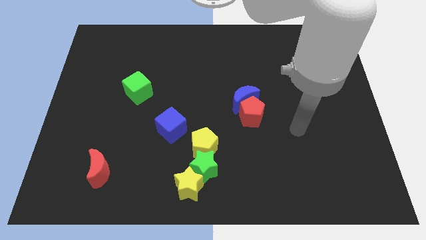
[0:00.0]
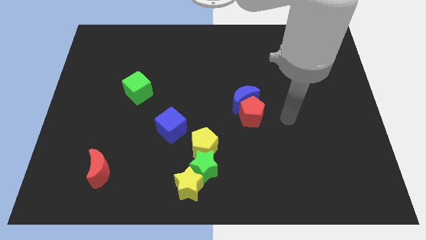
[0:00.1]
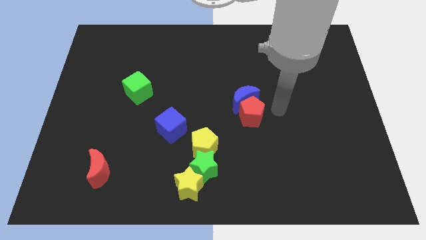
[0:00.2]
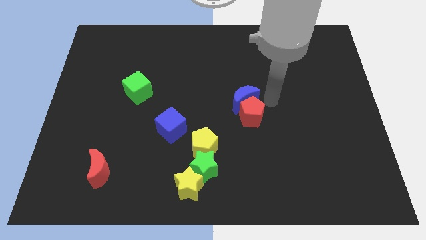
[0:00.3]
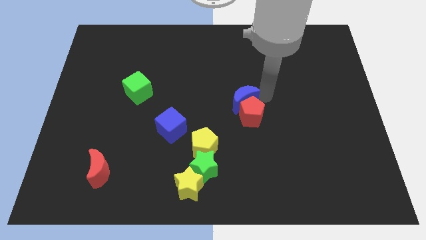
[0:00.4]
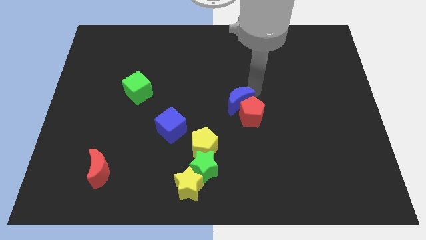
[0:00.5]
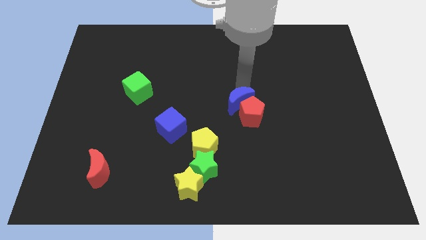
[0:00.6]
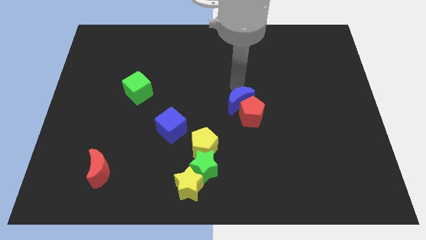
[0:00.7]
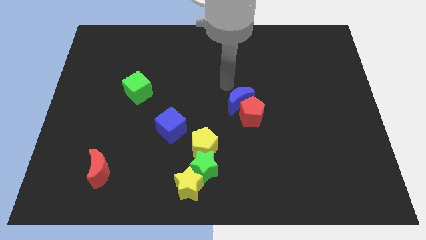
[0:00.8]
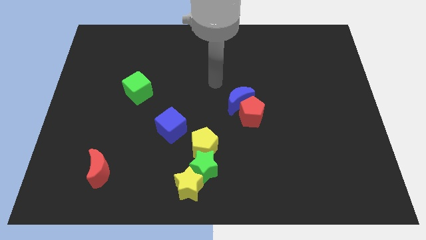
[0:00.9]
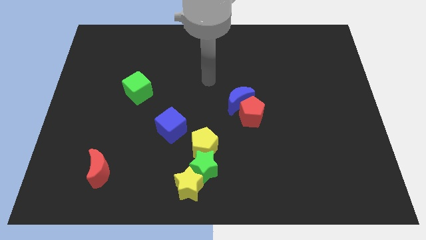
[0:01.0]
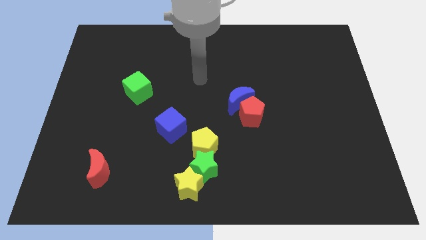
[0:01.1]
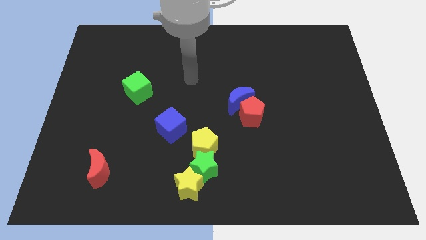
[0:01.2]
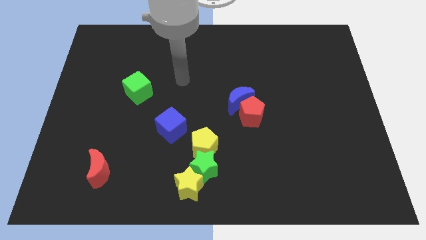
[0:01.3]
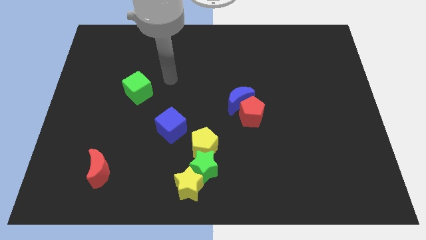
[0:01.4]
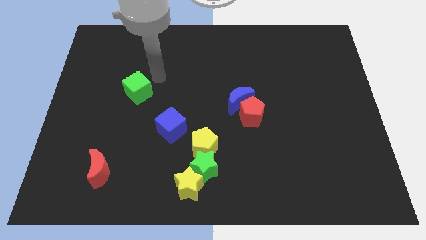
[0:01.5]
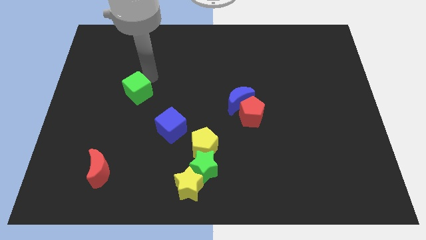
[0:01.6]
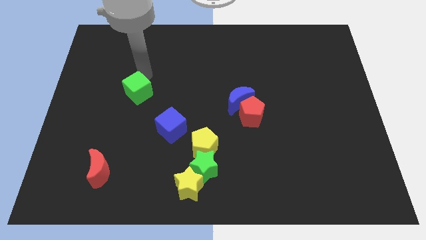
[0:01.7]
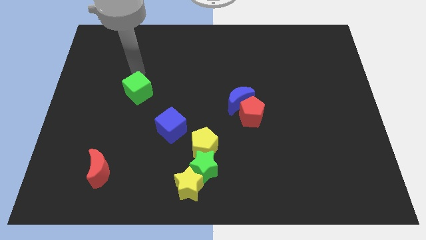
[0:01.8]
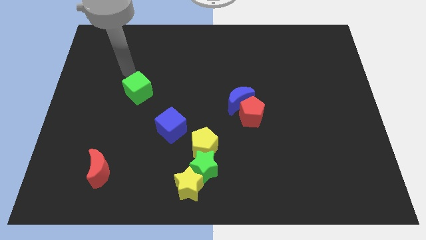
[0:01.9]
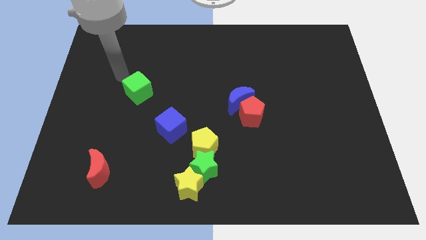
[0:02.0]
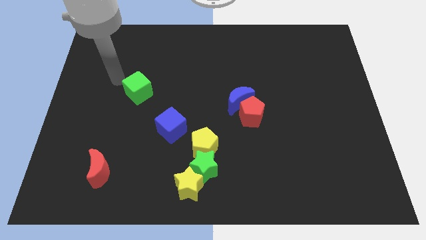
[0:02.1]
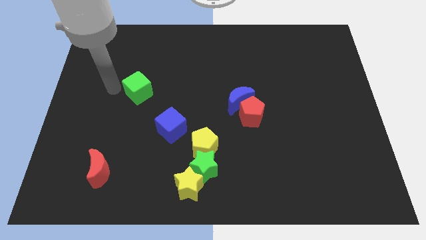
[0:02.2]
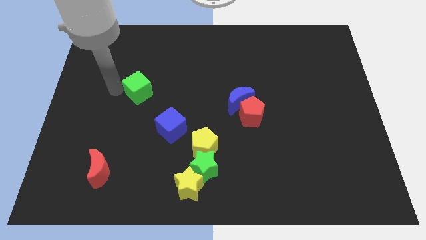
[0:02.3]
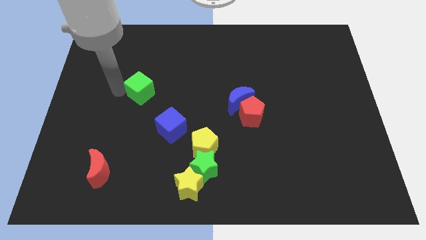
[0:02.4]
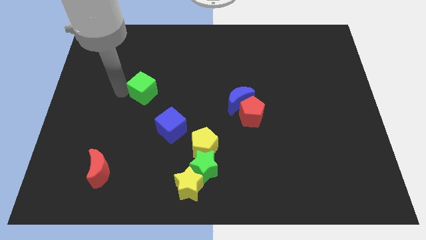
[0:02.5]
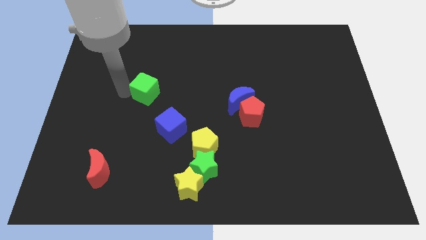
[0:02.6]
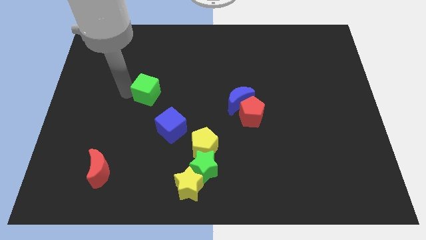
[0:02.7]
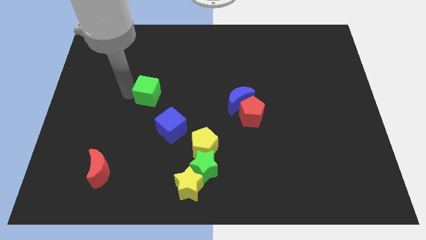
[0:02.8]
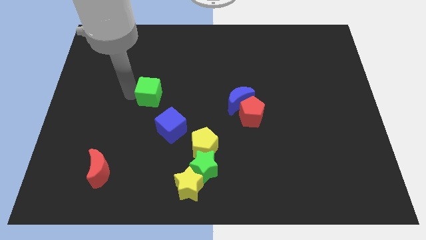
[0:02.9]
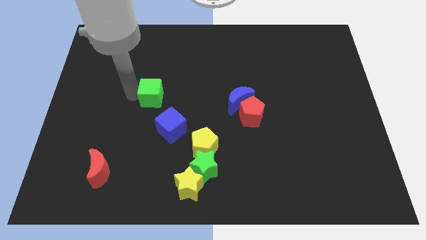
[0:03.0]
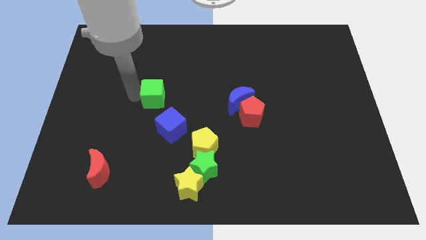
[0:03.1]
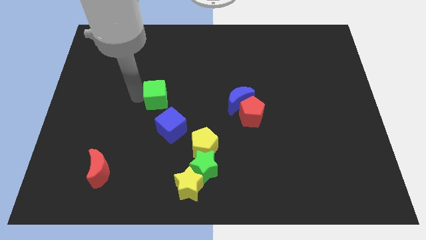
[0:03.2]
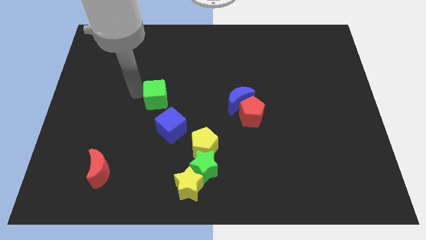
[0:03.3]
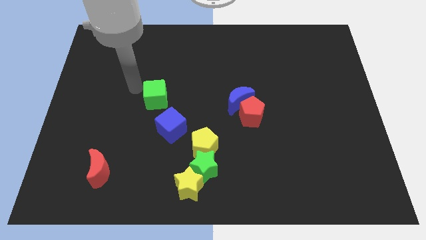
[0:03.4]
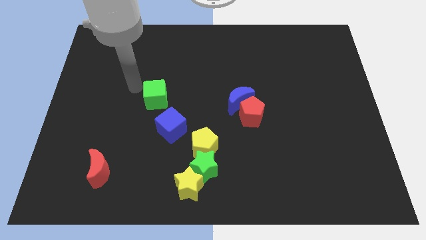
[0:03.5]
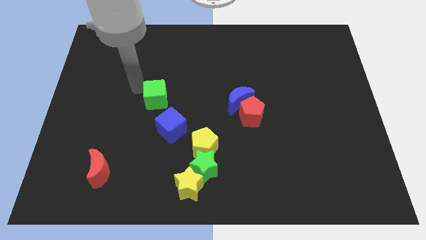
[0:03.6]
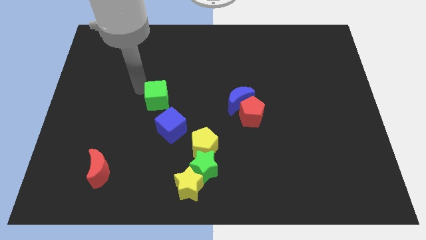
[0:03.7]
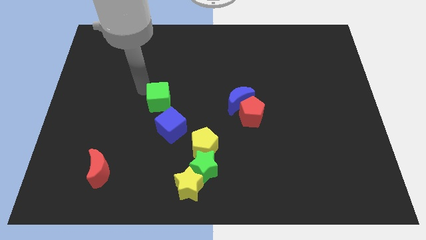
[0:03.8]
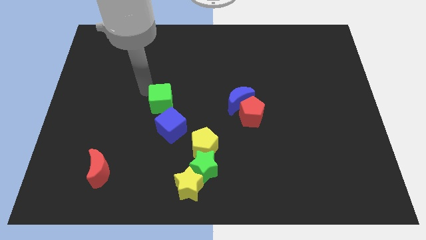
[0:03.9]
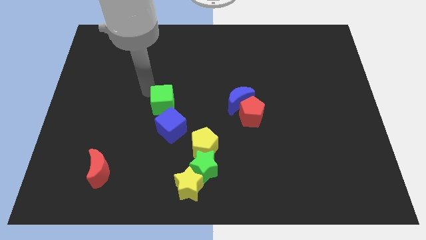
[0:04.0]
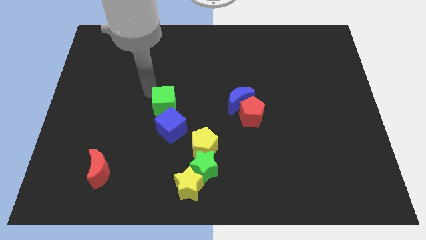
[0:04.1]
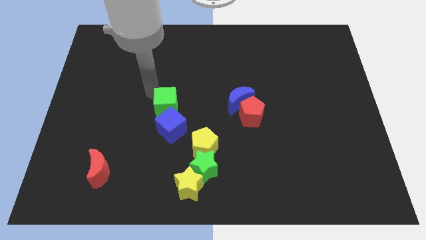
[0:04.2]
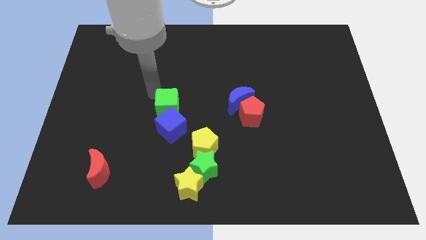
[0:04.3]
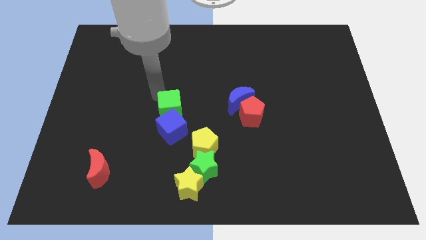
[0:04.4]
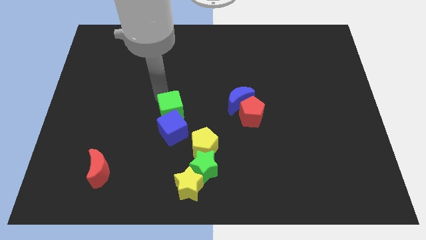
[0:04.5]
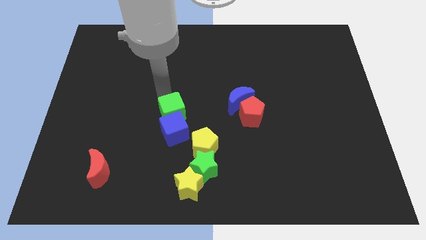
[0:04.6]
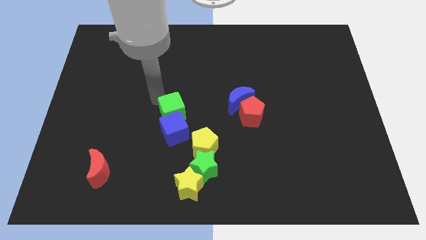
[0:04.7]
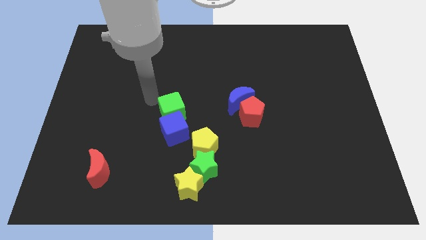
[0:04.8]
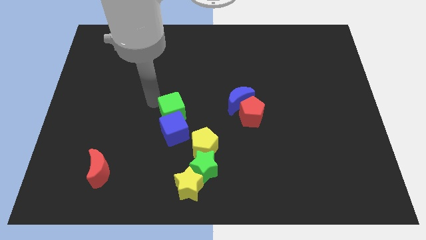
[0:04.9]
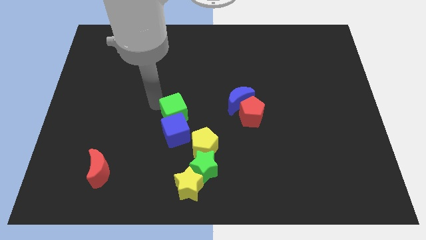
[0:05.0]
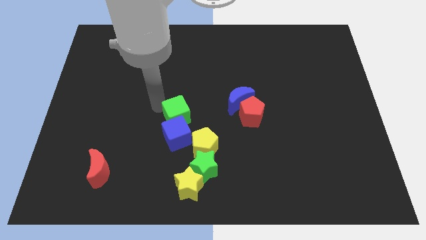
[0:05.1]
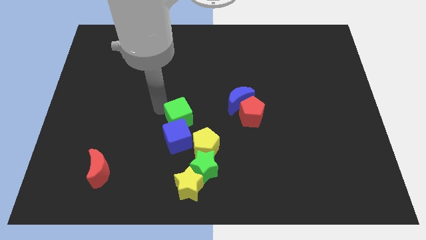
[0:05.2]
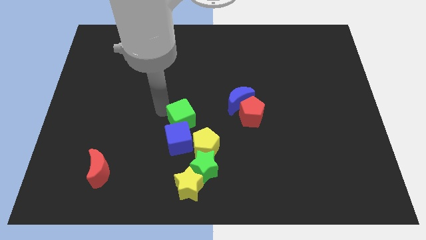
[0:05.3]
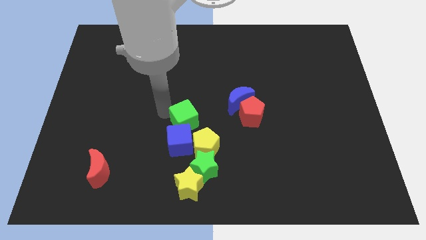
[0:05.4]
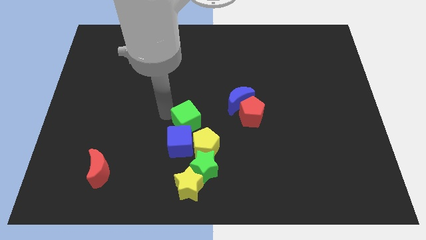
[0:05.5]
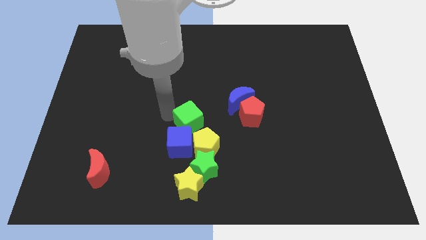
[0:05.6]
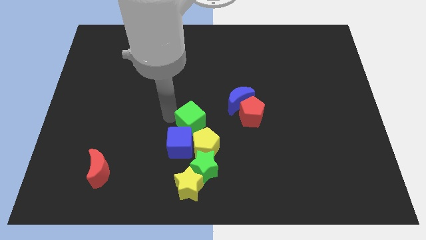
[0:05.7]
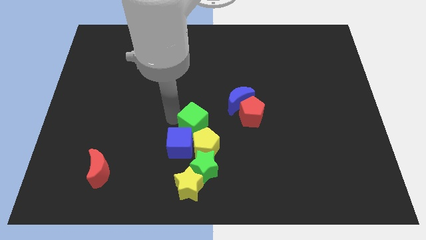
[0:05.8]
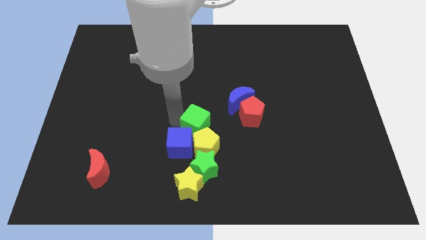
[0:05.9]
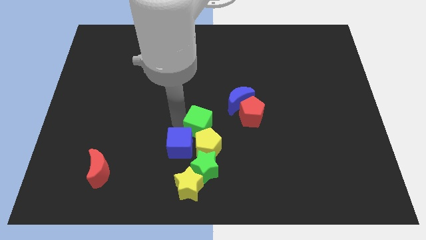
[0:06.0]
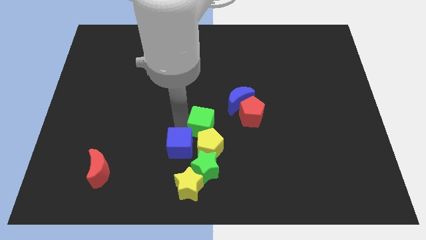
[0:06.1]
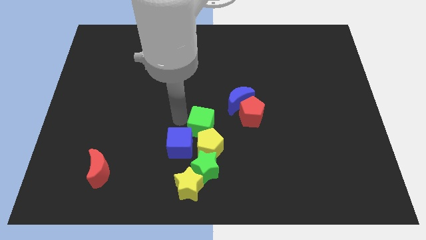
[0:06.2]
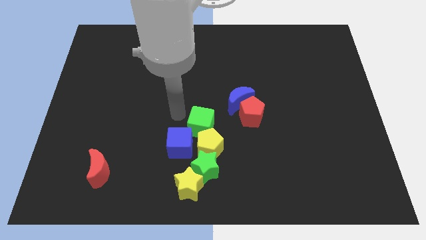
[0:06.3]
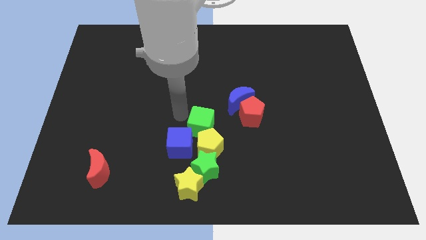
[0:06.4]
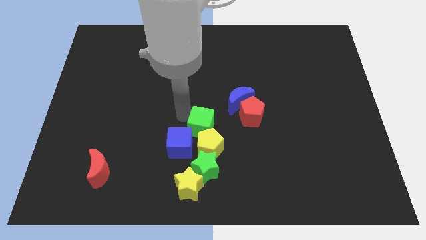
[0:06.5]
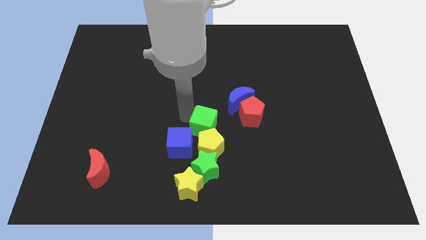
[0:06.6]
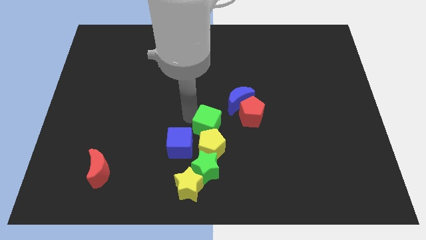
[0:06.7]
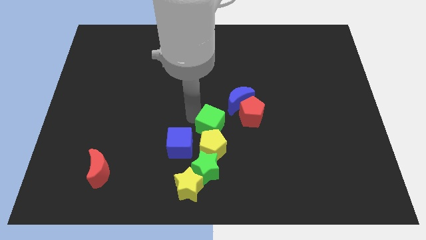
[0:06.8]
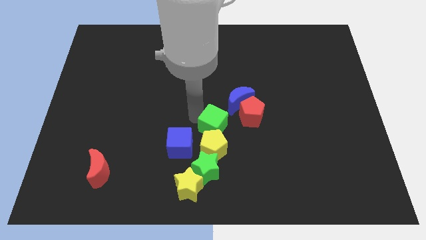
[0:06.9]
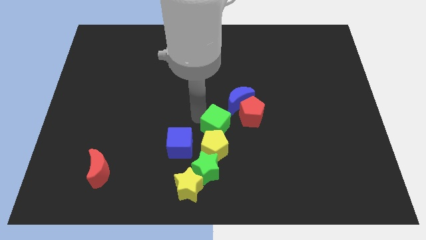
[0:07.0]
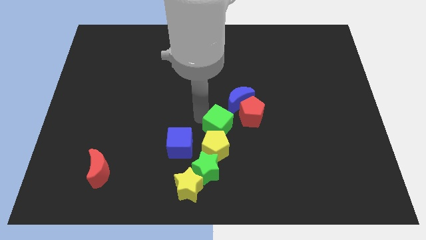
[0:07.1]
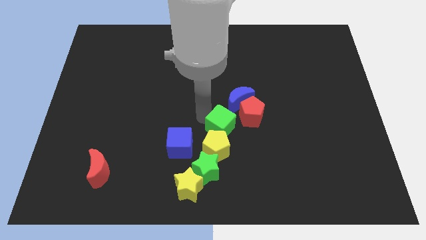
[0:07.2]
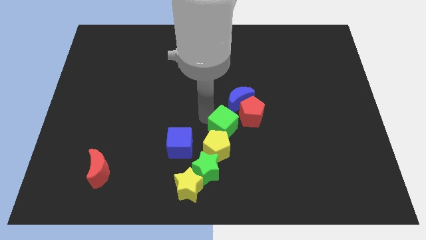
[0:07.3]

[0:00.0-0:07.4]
slide the green cube diagonally down and to the right

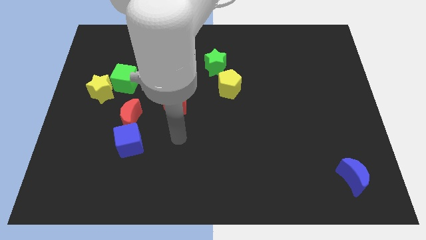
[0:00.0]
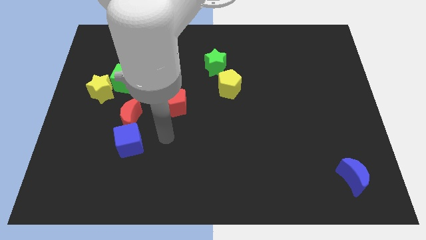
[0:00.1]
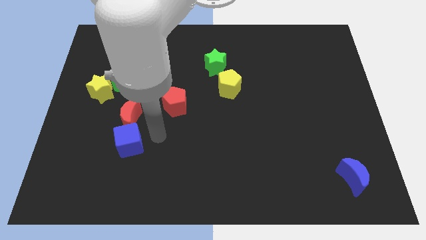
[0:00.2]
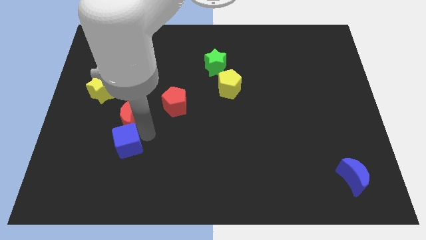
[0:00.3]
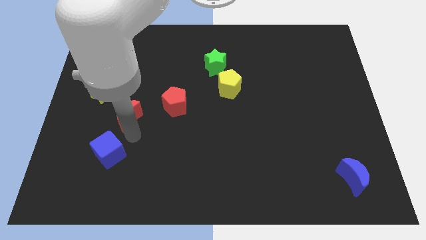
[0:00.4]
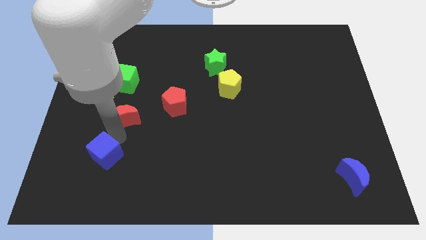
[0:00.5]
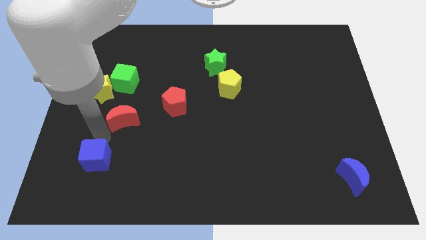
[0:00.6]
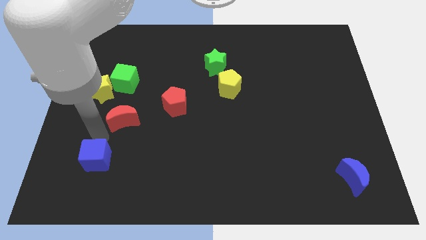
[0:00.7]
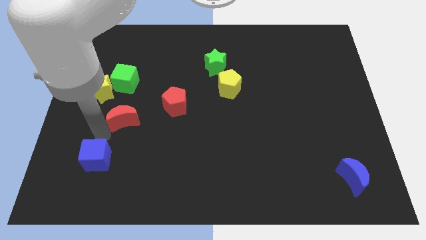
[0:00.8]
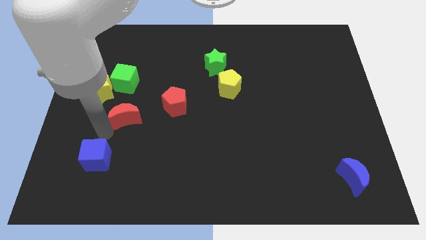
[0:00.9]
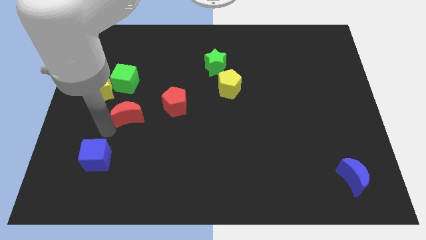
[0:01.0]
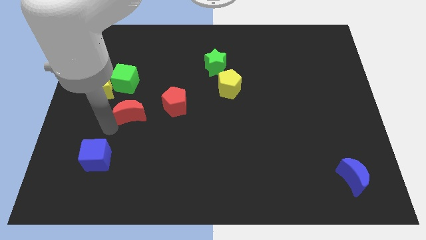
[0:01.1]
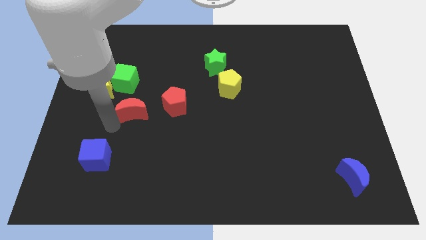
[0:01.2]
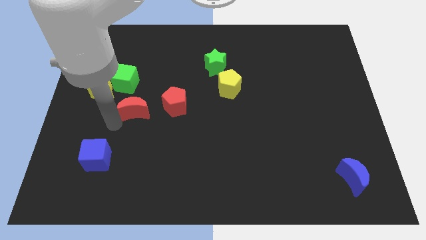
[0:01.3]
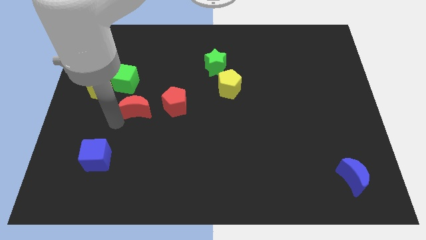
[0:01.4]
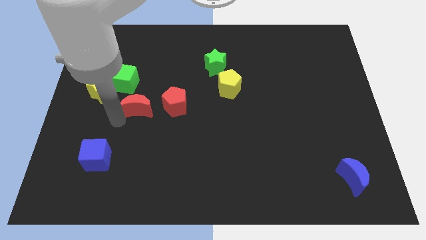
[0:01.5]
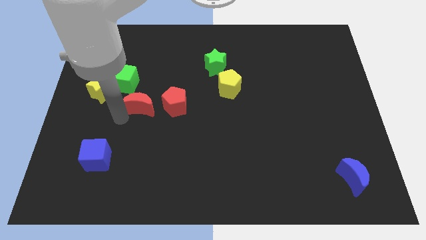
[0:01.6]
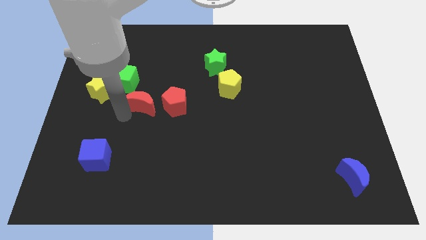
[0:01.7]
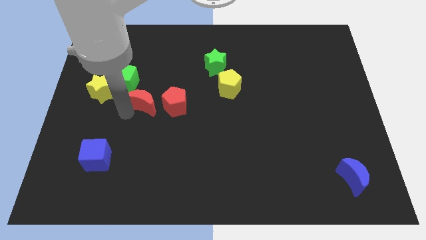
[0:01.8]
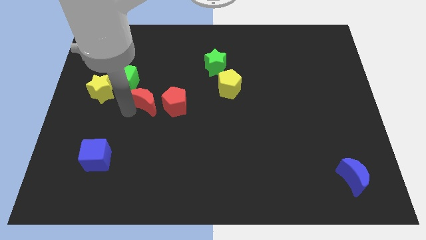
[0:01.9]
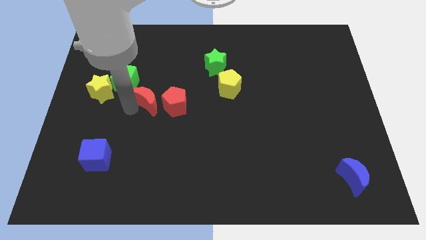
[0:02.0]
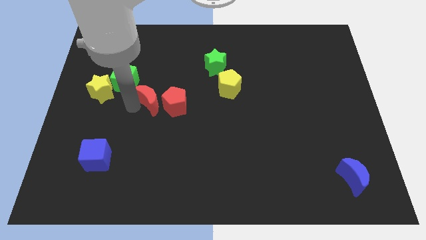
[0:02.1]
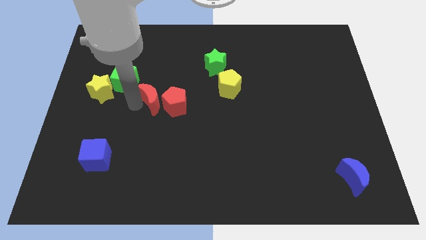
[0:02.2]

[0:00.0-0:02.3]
slide the red moon a little bit upwards and right diagonally
